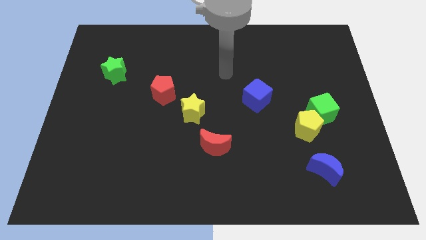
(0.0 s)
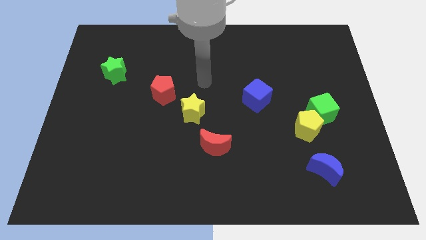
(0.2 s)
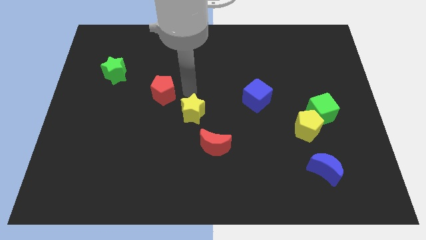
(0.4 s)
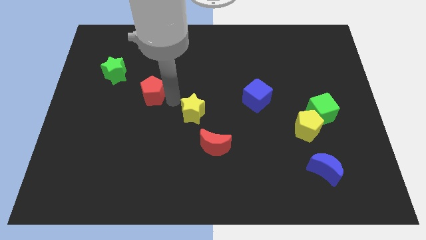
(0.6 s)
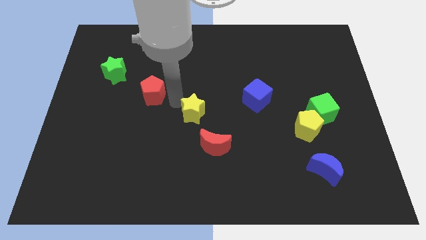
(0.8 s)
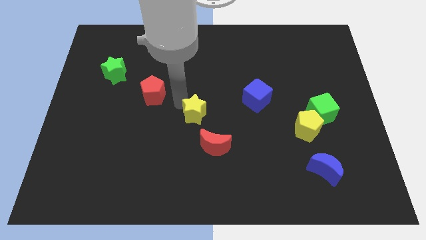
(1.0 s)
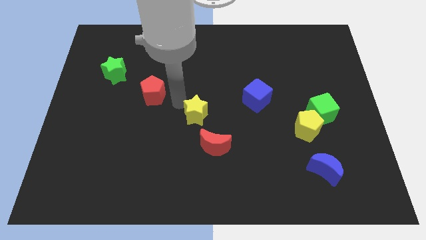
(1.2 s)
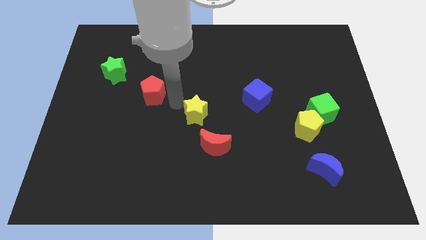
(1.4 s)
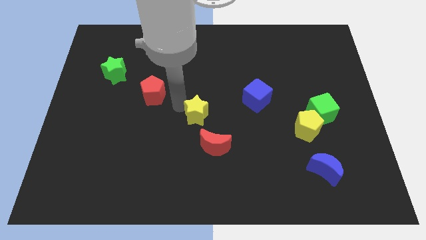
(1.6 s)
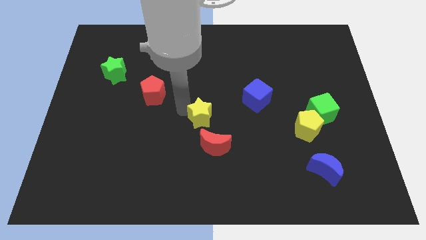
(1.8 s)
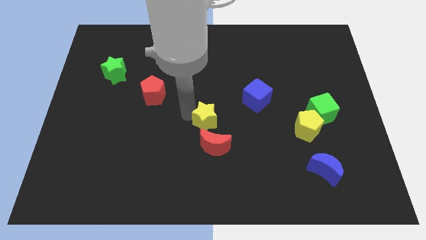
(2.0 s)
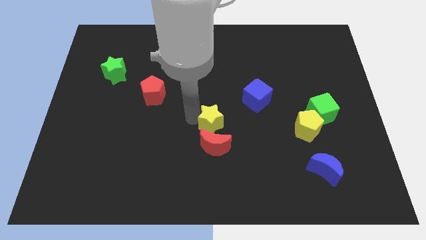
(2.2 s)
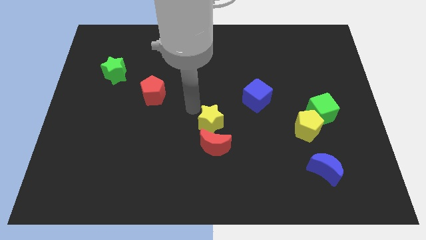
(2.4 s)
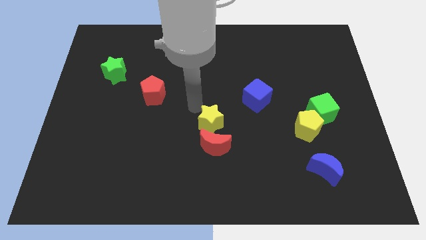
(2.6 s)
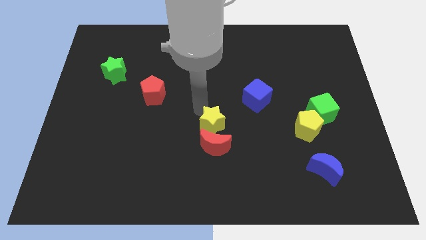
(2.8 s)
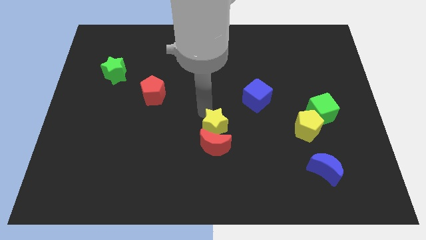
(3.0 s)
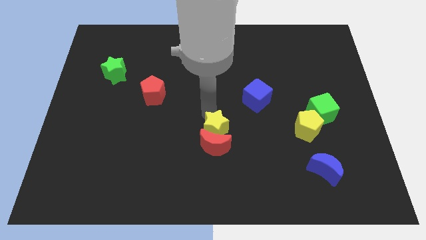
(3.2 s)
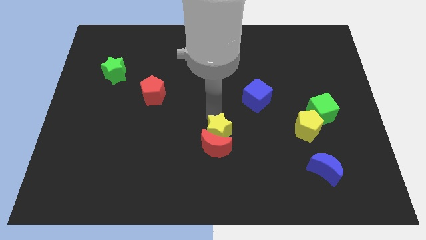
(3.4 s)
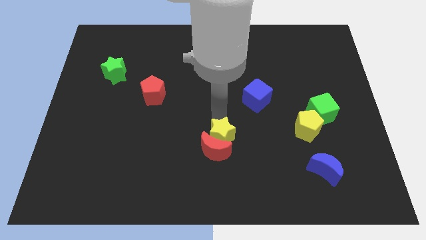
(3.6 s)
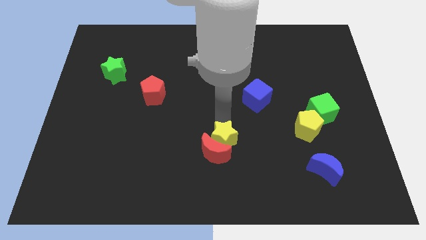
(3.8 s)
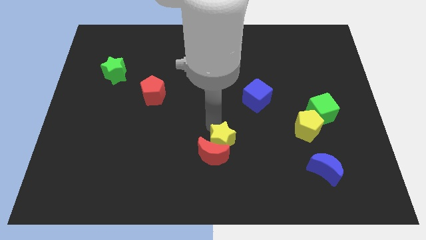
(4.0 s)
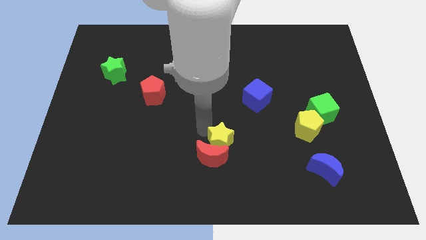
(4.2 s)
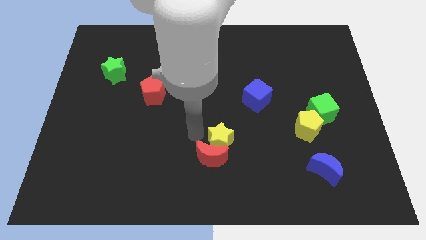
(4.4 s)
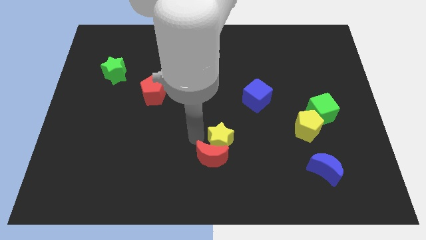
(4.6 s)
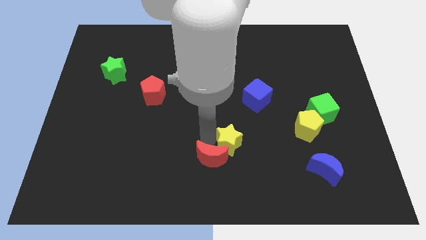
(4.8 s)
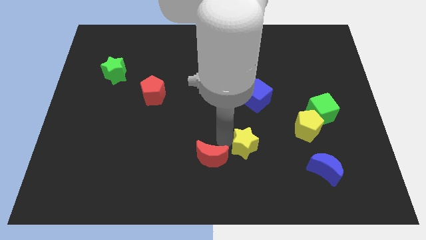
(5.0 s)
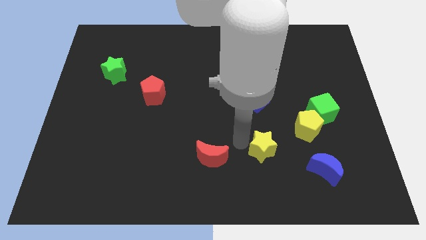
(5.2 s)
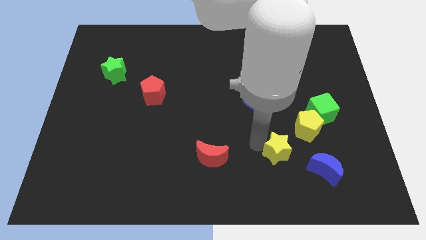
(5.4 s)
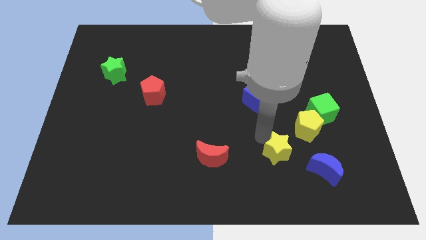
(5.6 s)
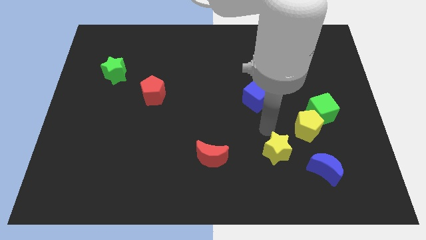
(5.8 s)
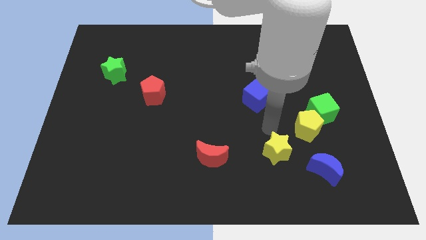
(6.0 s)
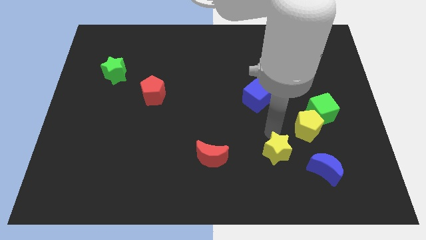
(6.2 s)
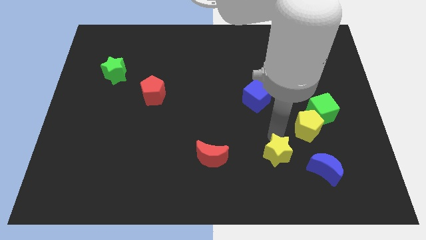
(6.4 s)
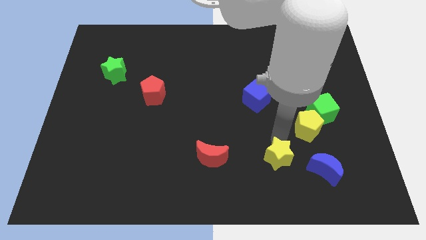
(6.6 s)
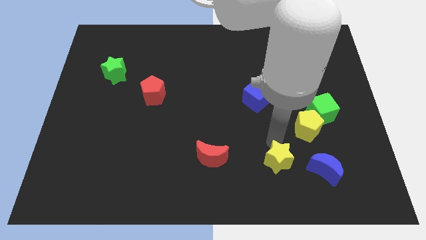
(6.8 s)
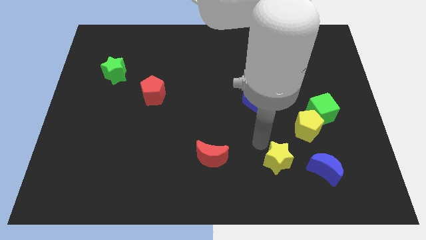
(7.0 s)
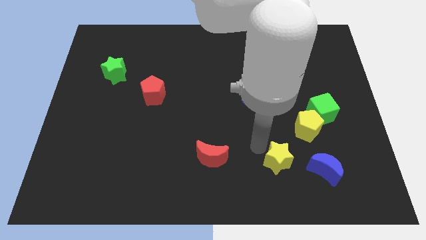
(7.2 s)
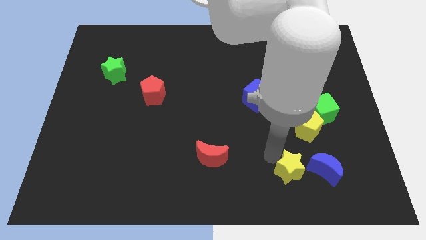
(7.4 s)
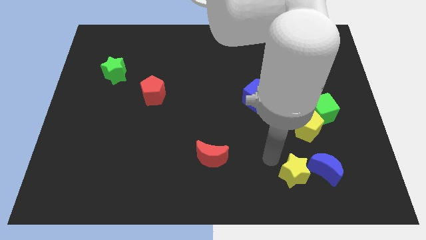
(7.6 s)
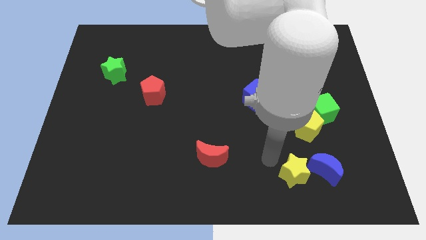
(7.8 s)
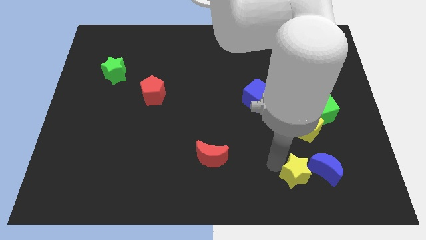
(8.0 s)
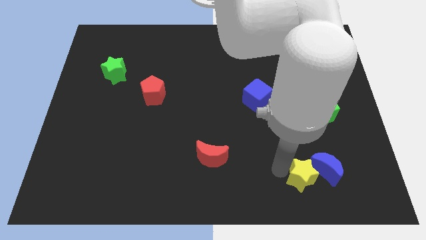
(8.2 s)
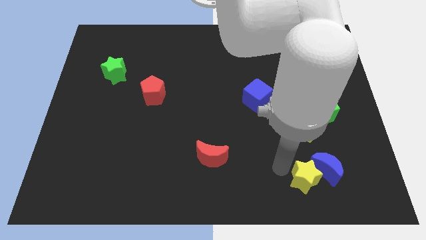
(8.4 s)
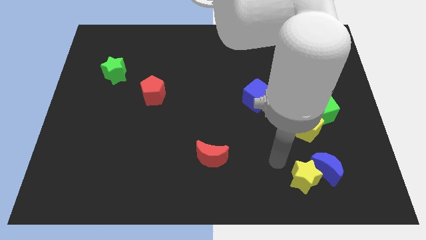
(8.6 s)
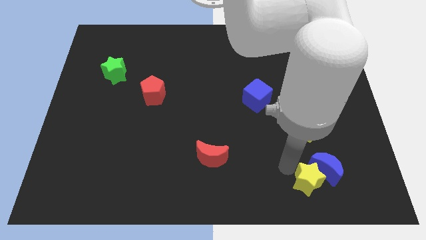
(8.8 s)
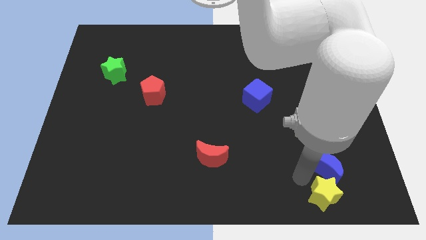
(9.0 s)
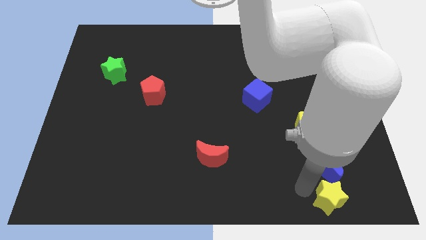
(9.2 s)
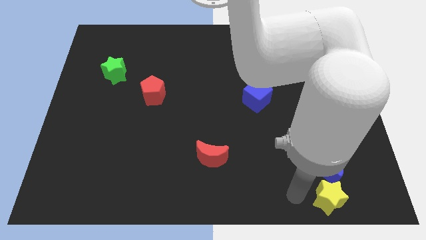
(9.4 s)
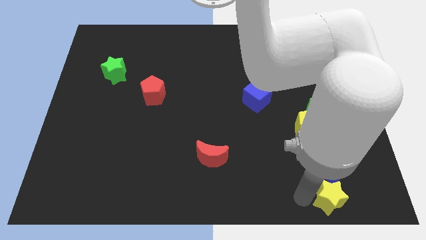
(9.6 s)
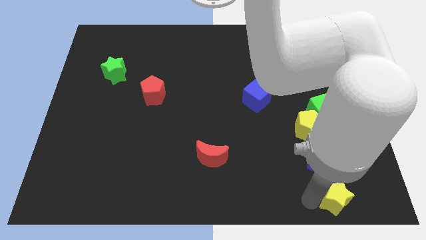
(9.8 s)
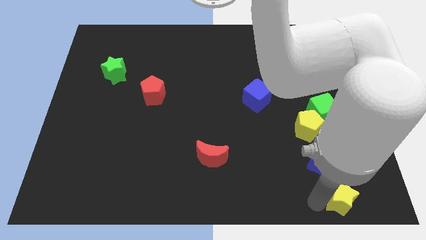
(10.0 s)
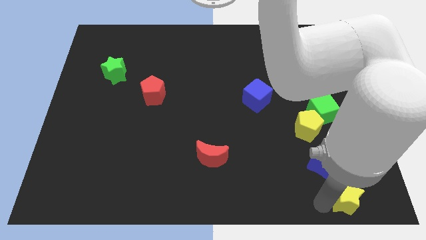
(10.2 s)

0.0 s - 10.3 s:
slide the yellow star to the bottom right corner

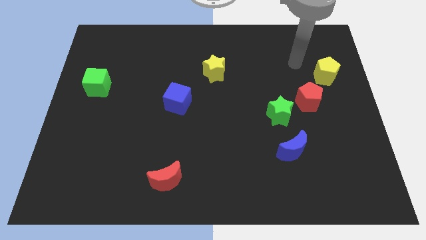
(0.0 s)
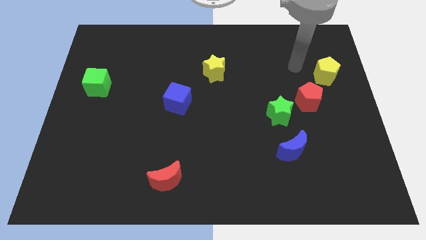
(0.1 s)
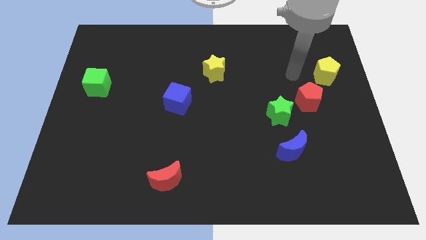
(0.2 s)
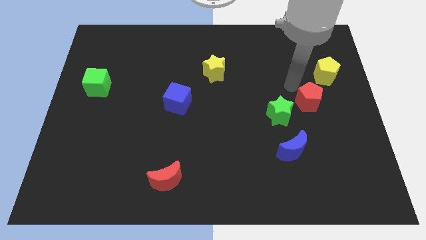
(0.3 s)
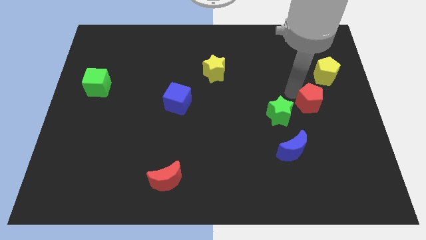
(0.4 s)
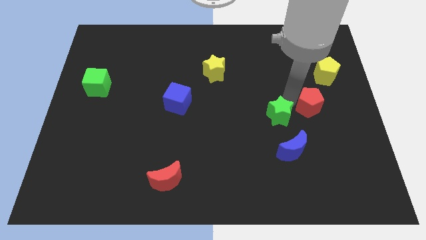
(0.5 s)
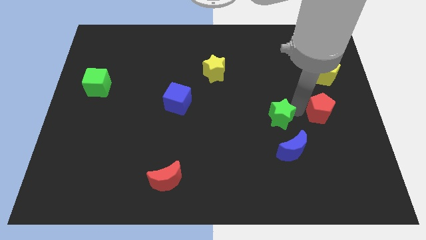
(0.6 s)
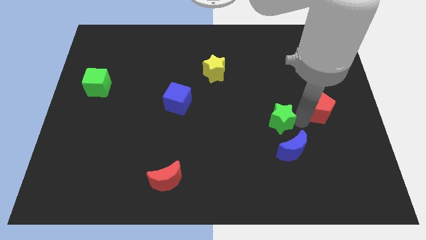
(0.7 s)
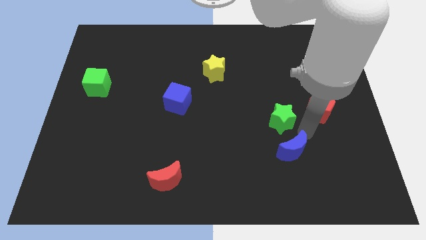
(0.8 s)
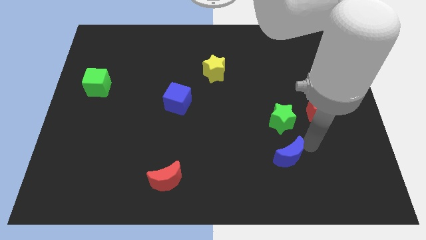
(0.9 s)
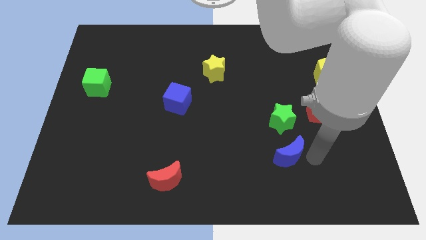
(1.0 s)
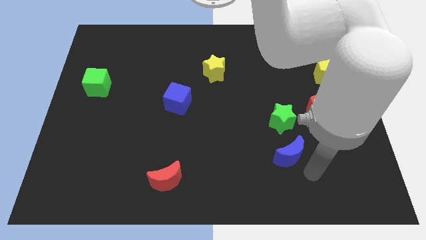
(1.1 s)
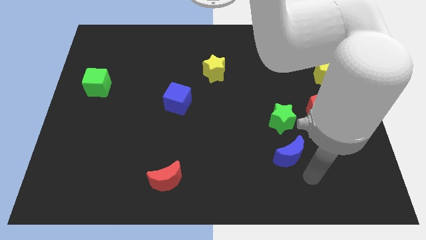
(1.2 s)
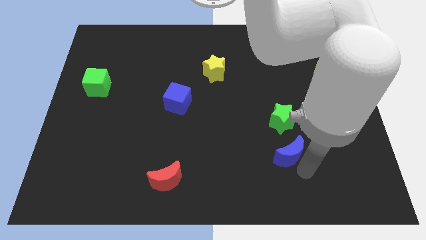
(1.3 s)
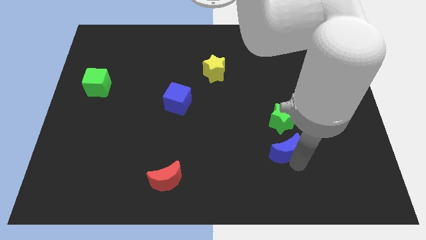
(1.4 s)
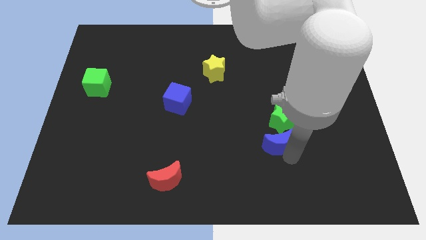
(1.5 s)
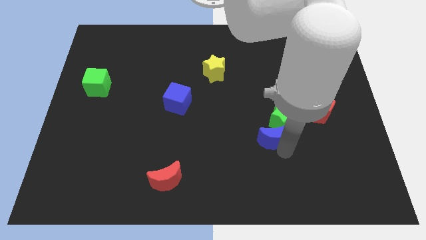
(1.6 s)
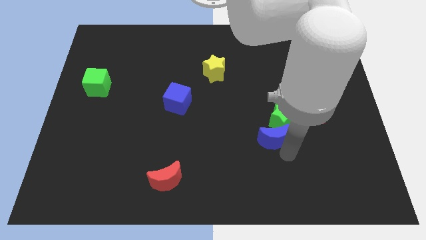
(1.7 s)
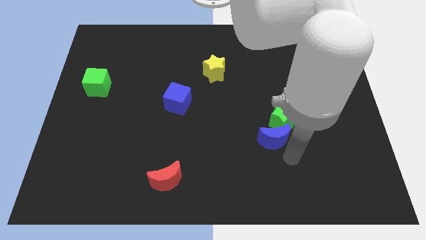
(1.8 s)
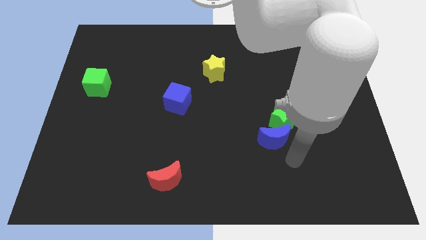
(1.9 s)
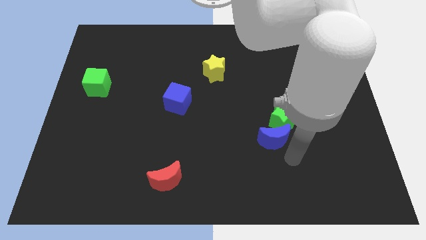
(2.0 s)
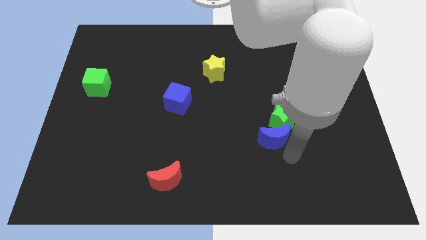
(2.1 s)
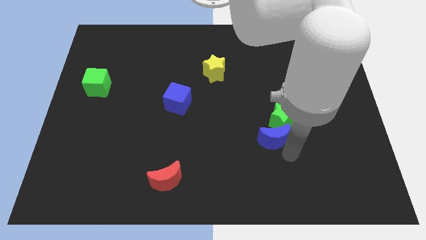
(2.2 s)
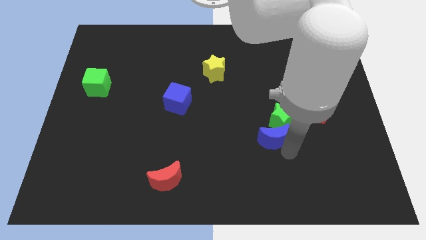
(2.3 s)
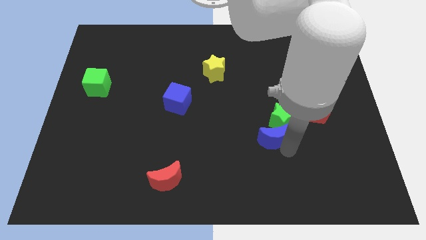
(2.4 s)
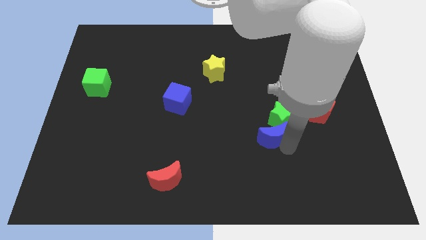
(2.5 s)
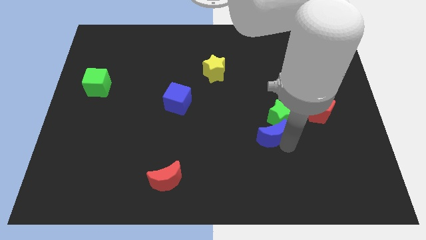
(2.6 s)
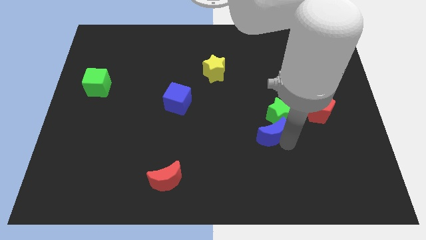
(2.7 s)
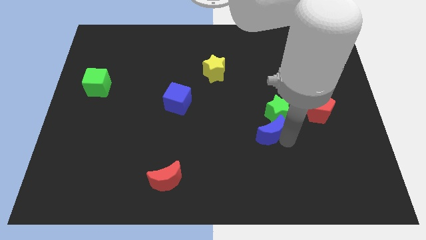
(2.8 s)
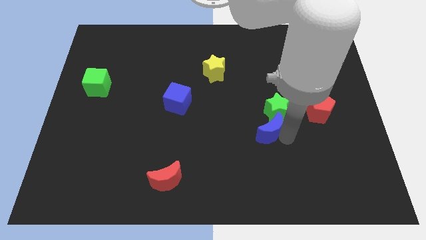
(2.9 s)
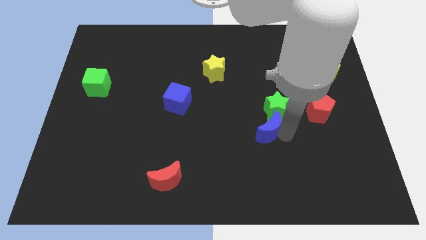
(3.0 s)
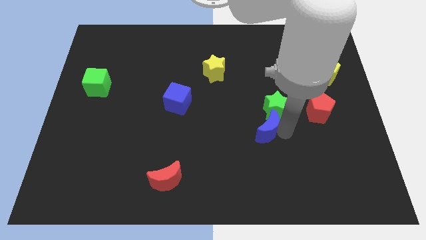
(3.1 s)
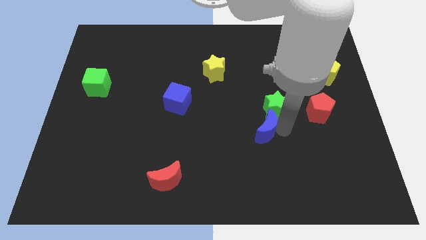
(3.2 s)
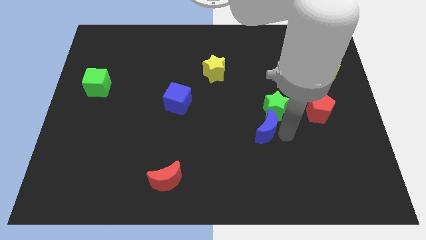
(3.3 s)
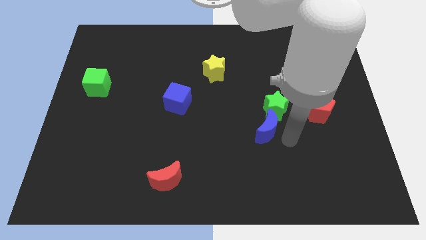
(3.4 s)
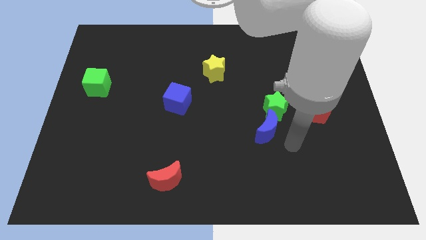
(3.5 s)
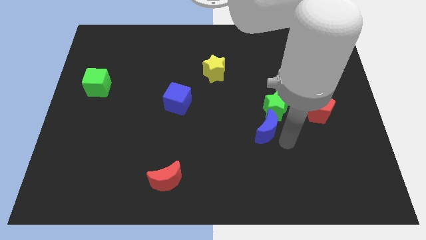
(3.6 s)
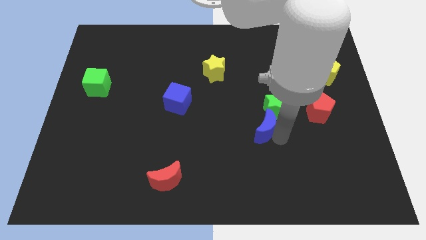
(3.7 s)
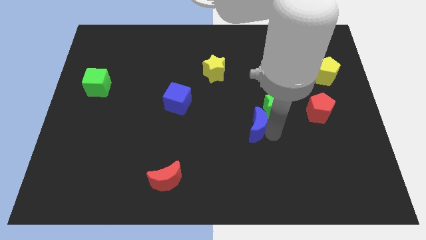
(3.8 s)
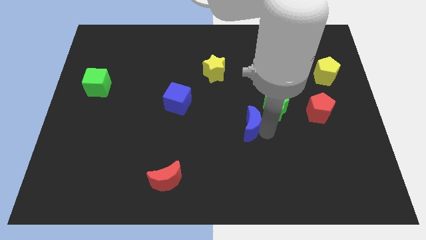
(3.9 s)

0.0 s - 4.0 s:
move the blue moon to the center
